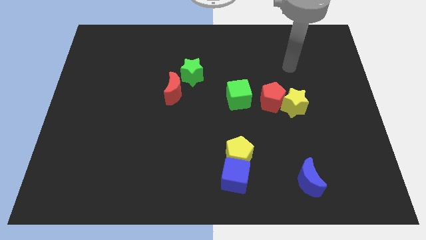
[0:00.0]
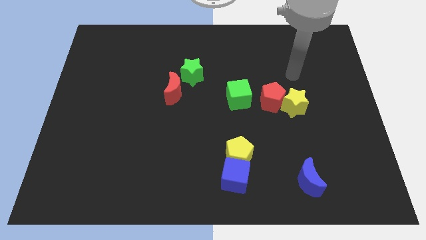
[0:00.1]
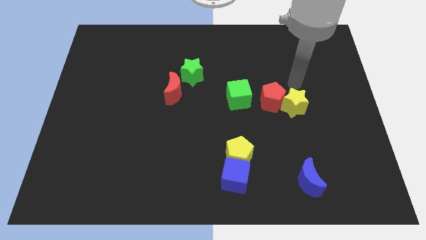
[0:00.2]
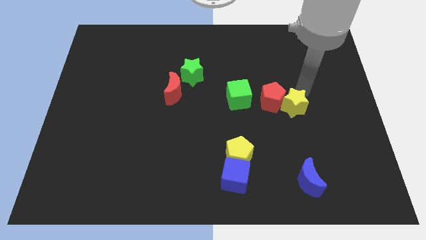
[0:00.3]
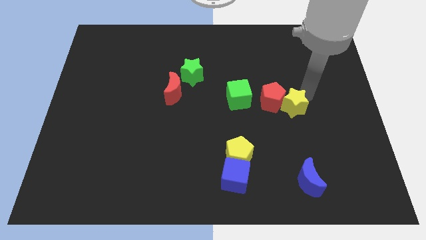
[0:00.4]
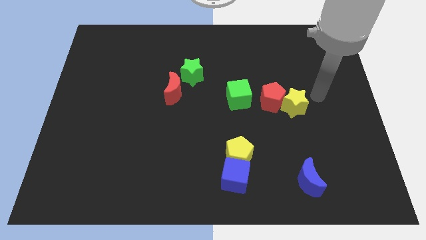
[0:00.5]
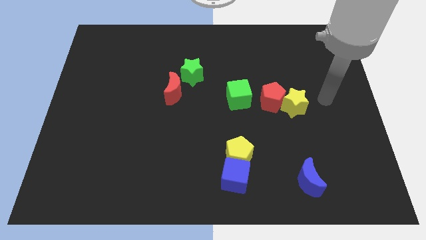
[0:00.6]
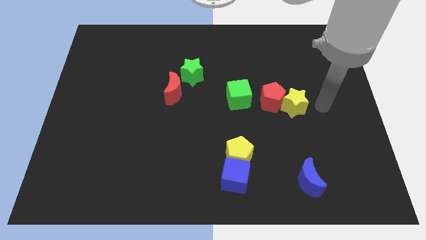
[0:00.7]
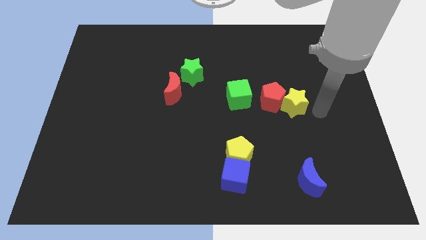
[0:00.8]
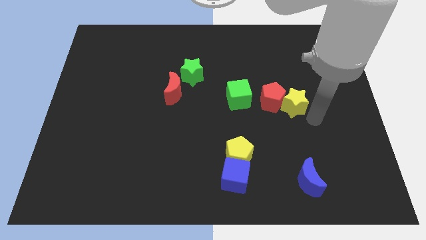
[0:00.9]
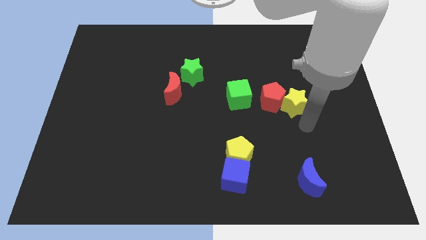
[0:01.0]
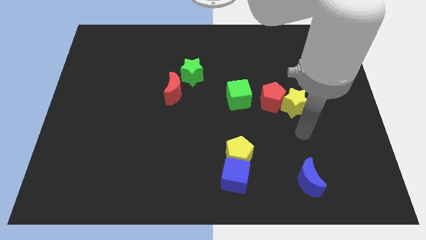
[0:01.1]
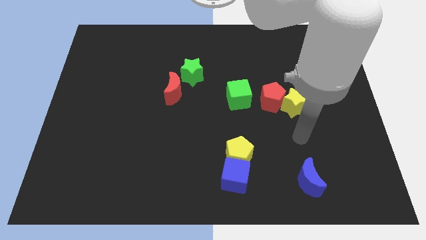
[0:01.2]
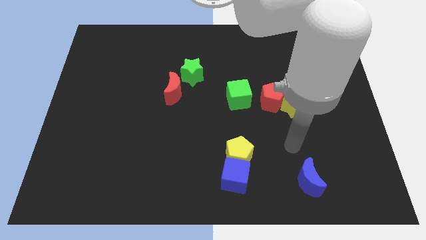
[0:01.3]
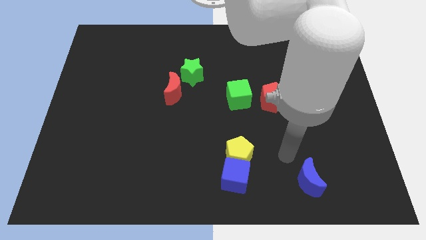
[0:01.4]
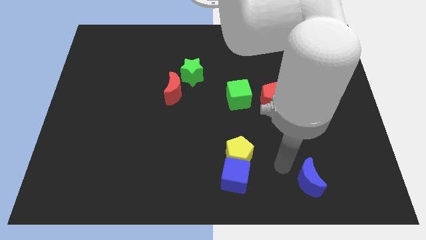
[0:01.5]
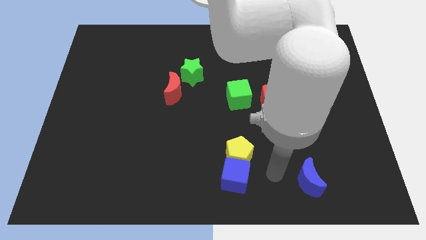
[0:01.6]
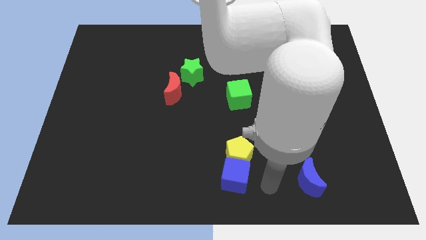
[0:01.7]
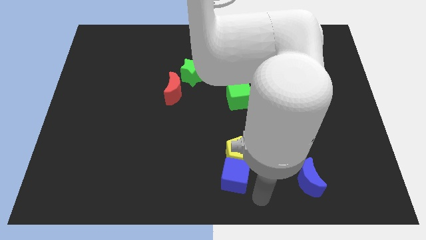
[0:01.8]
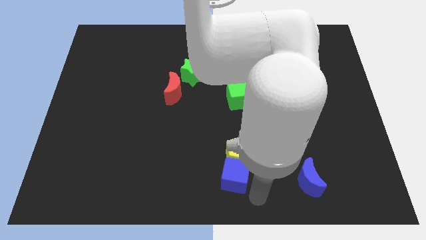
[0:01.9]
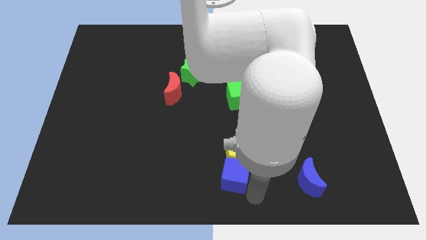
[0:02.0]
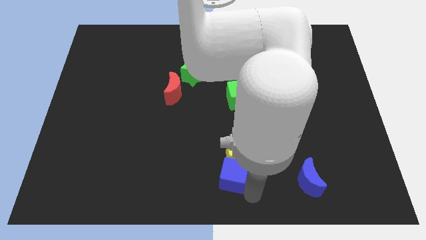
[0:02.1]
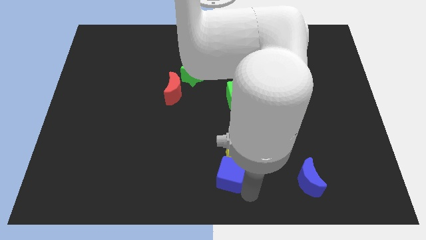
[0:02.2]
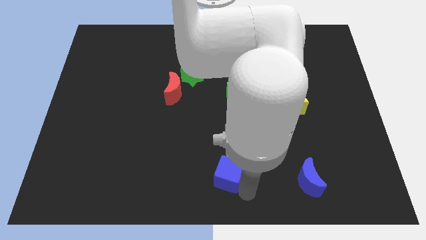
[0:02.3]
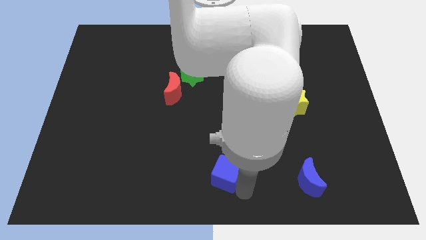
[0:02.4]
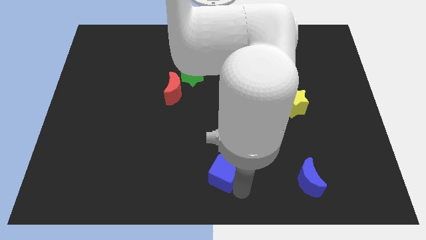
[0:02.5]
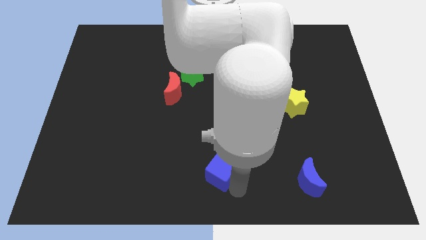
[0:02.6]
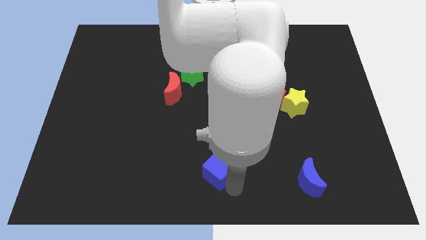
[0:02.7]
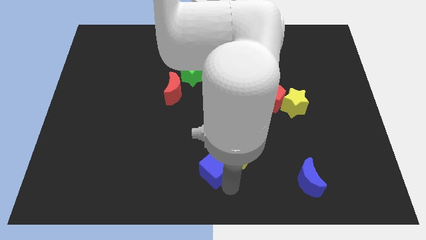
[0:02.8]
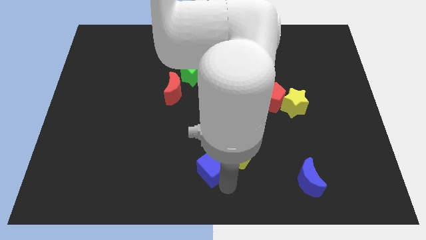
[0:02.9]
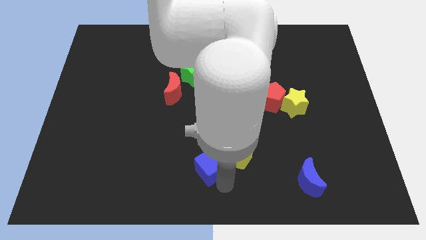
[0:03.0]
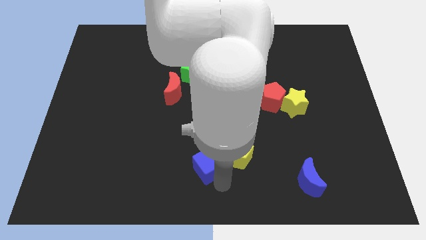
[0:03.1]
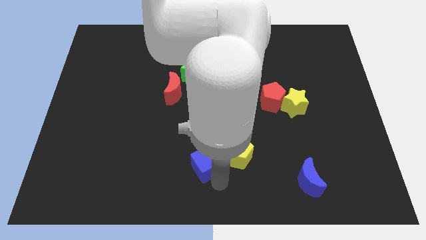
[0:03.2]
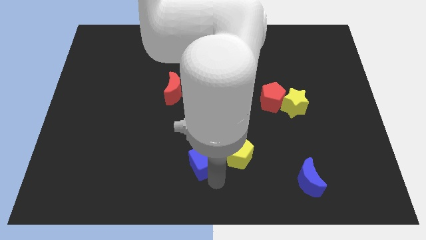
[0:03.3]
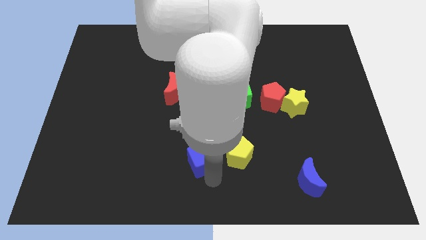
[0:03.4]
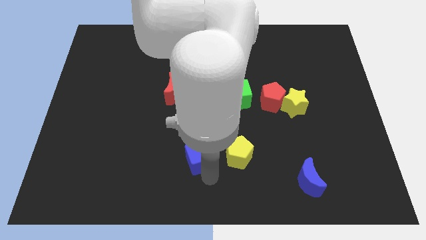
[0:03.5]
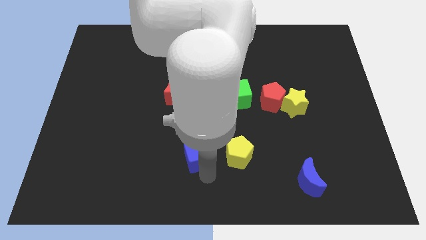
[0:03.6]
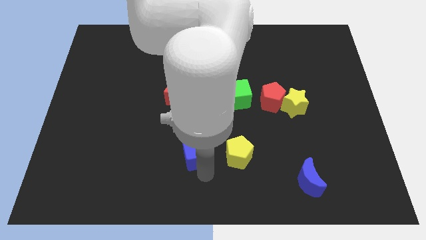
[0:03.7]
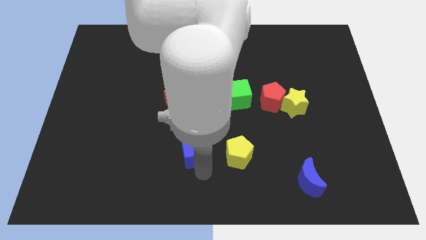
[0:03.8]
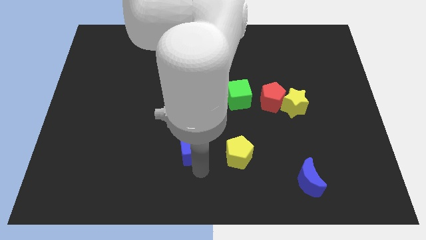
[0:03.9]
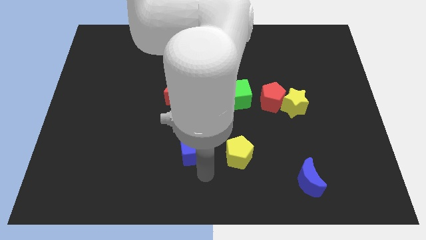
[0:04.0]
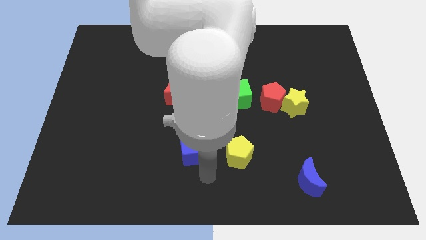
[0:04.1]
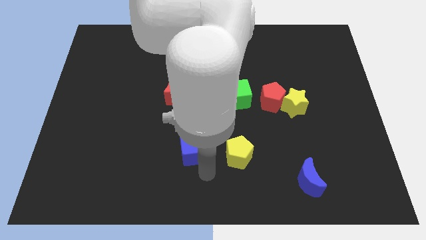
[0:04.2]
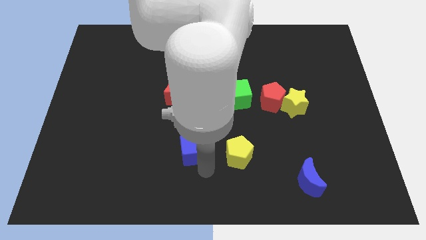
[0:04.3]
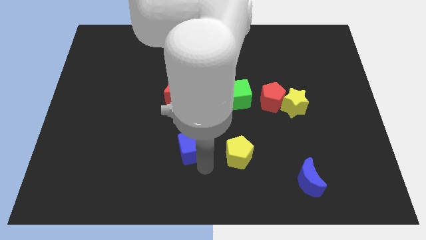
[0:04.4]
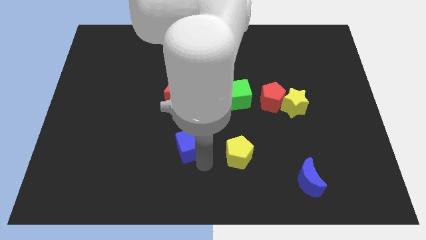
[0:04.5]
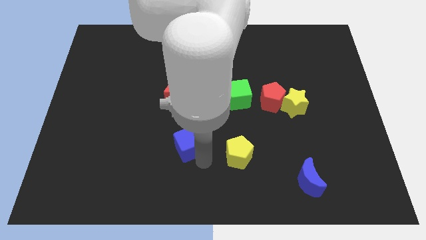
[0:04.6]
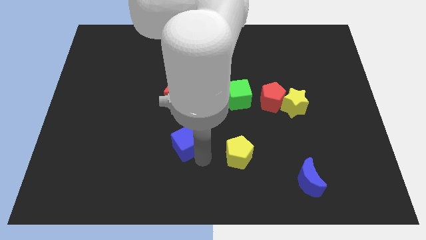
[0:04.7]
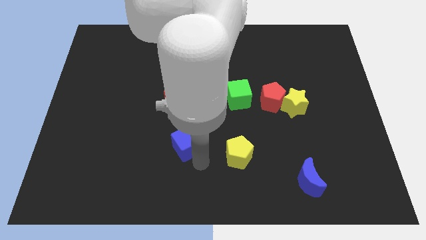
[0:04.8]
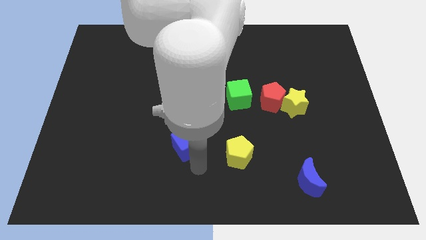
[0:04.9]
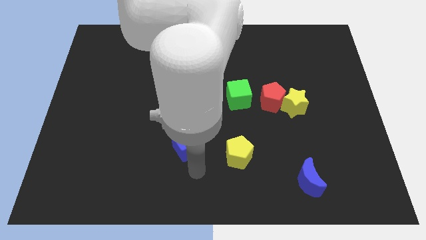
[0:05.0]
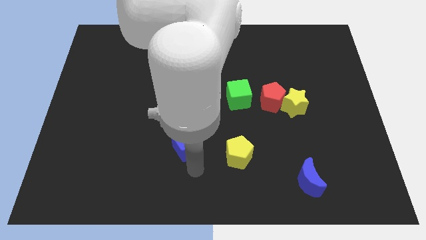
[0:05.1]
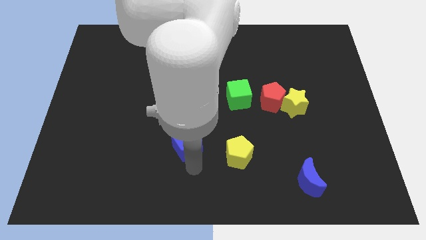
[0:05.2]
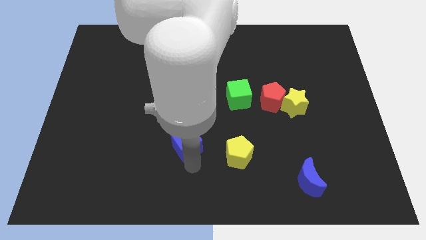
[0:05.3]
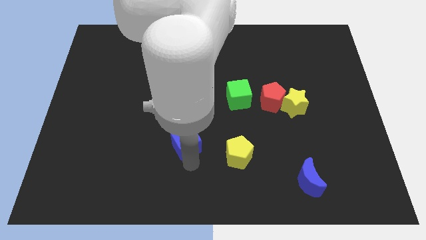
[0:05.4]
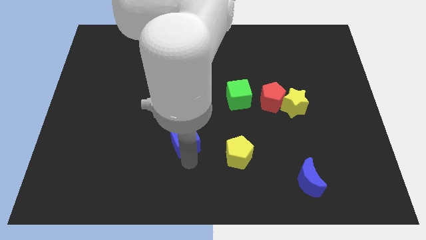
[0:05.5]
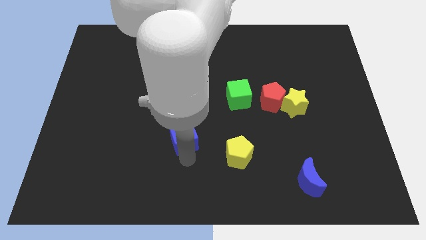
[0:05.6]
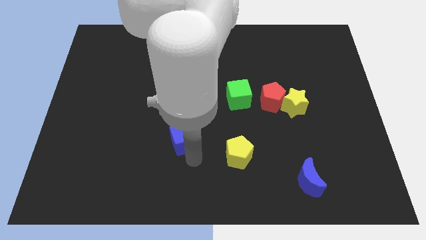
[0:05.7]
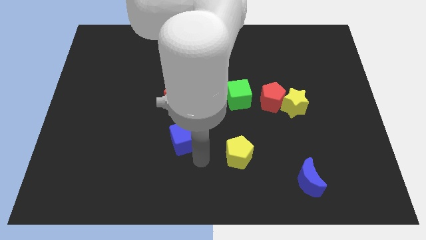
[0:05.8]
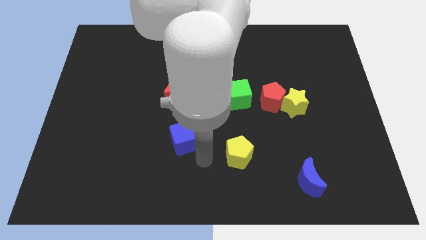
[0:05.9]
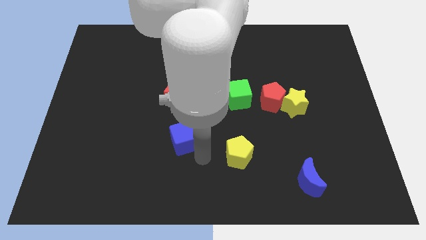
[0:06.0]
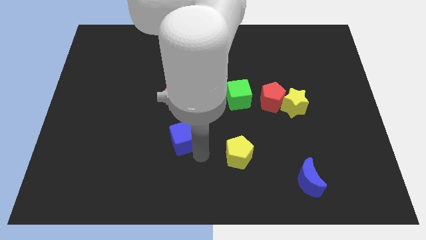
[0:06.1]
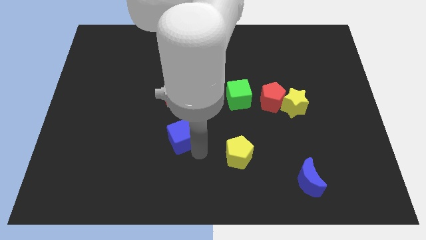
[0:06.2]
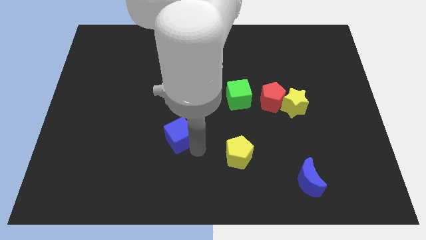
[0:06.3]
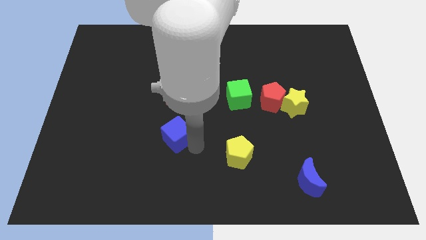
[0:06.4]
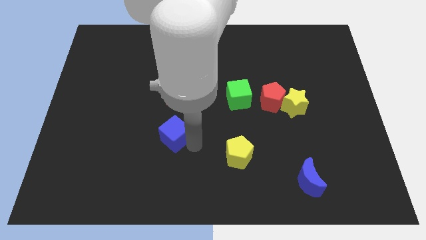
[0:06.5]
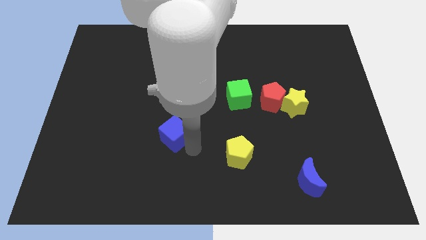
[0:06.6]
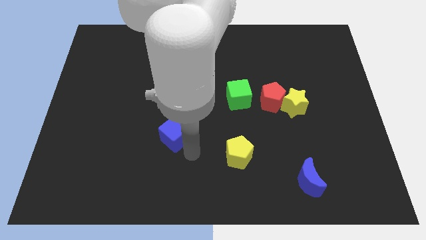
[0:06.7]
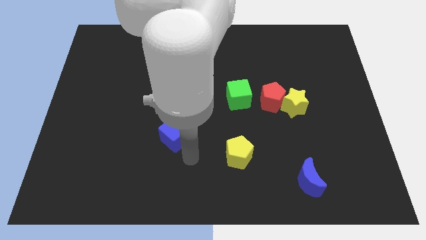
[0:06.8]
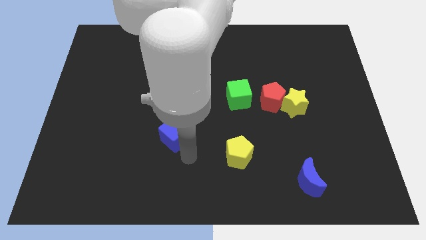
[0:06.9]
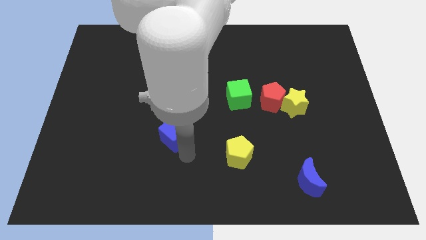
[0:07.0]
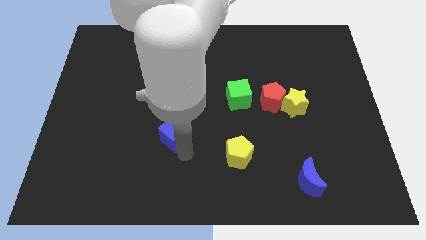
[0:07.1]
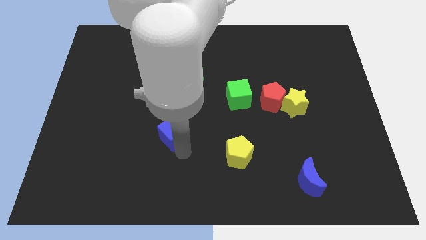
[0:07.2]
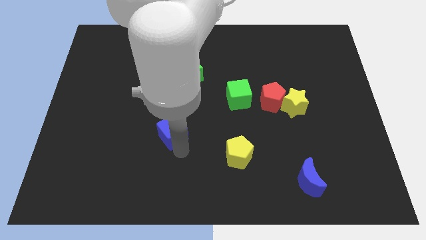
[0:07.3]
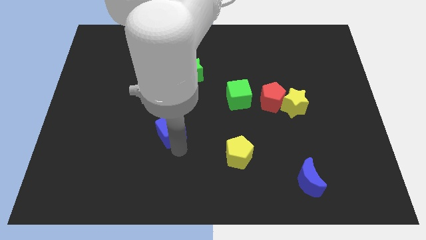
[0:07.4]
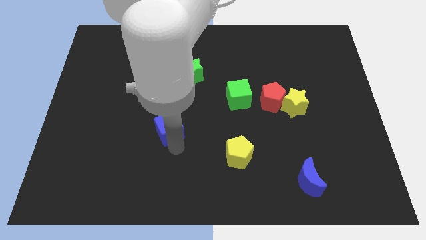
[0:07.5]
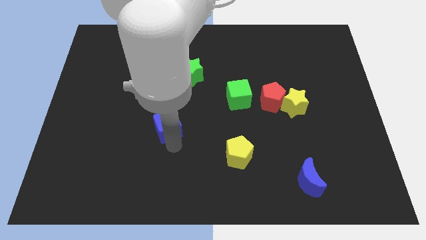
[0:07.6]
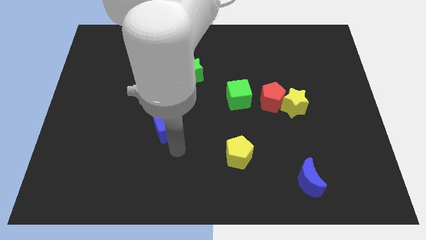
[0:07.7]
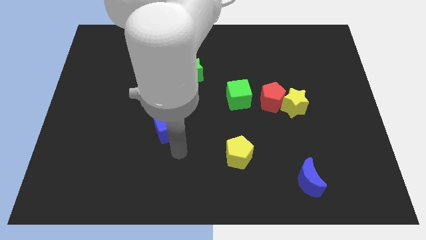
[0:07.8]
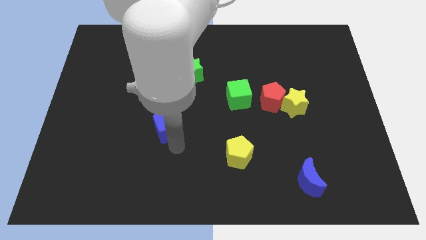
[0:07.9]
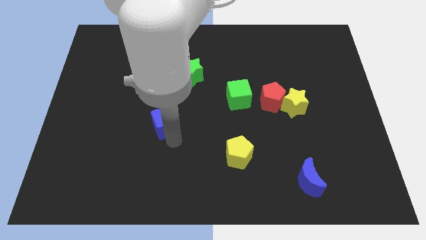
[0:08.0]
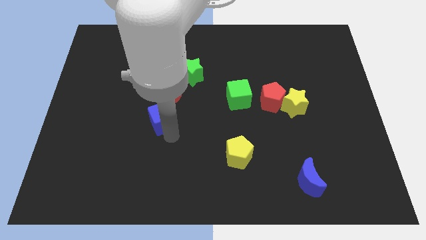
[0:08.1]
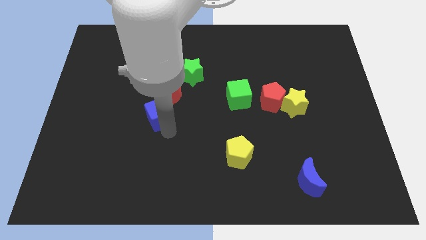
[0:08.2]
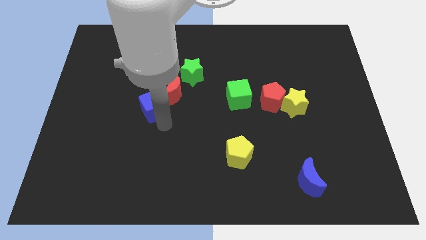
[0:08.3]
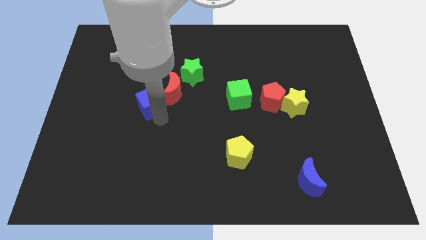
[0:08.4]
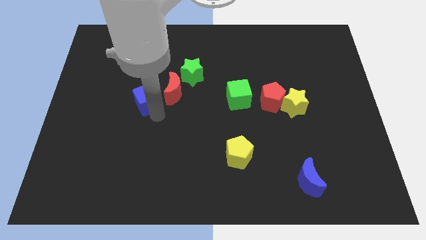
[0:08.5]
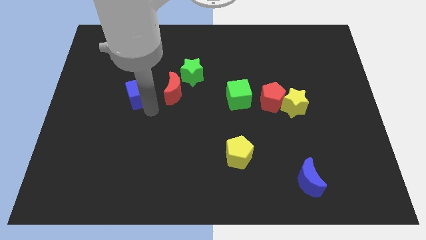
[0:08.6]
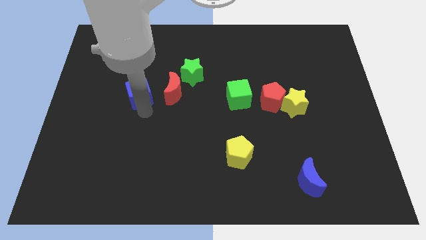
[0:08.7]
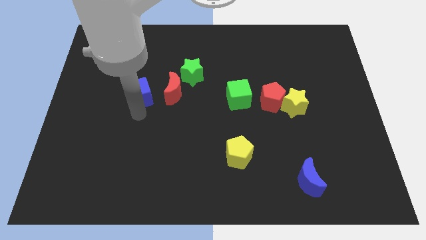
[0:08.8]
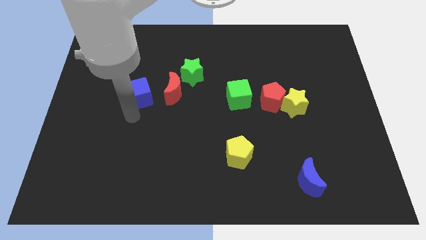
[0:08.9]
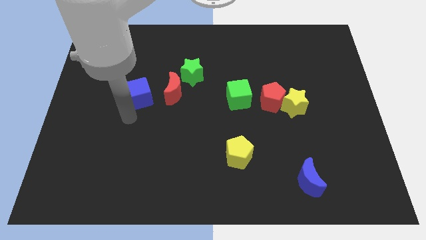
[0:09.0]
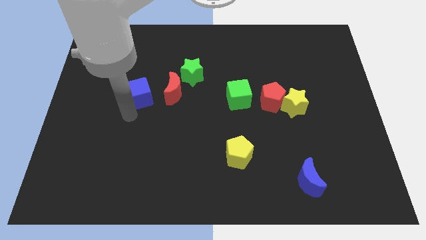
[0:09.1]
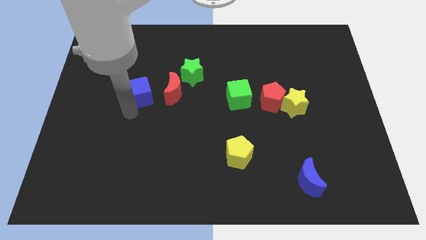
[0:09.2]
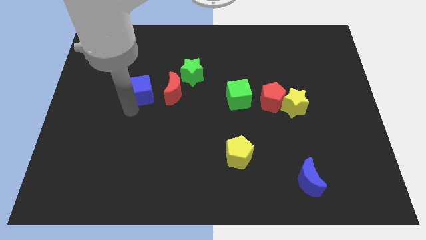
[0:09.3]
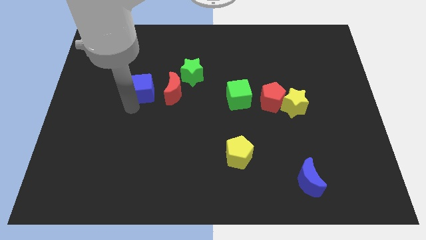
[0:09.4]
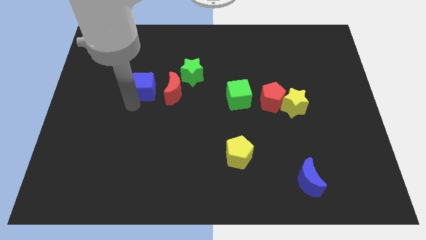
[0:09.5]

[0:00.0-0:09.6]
put the blue cube left of the green star
